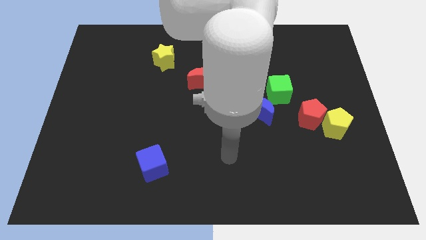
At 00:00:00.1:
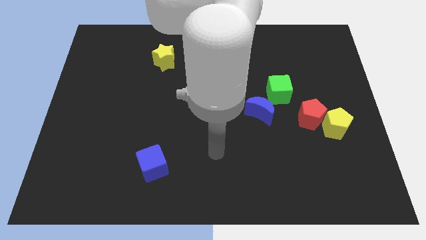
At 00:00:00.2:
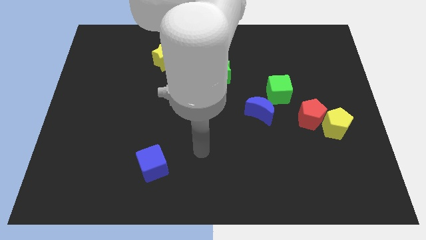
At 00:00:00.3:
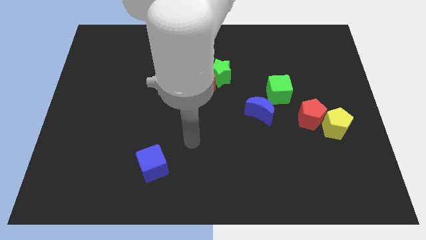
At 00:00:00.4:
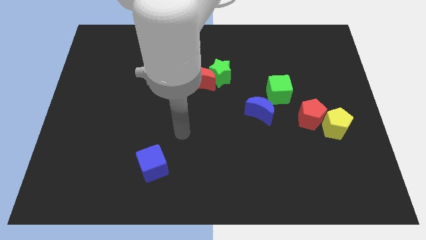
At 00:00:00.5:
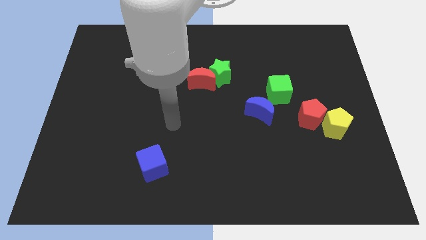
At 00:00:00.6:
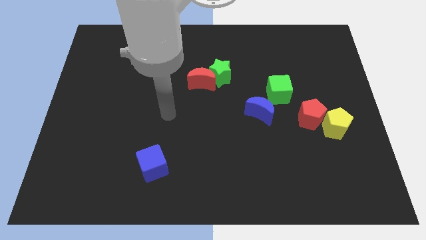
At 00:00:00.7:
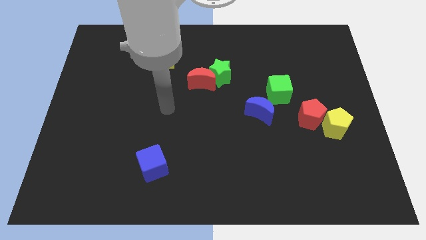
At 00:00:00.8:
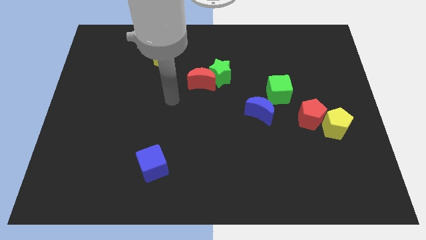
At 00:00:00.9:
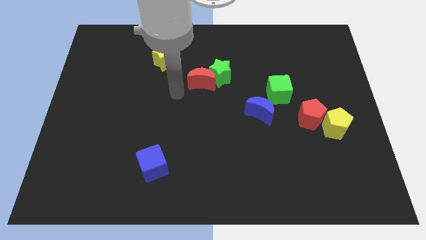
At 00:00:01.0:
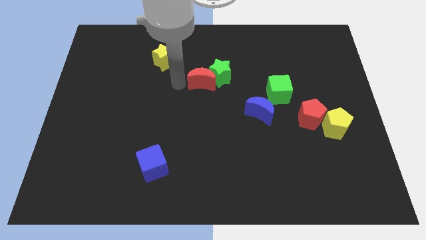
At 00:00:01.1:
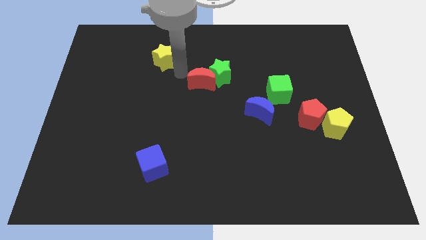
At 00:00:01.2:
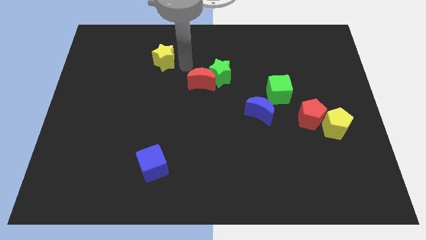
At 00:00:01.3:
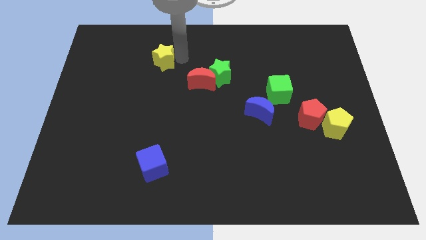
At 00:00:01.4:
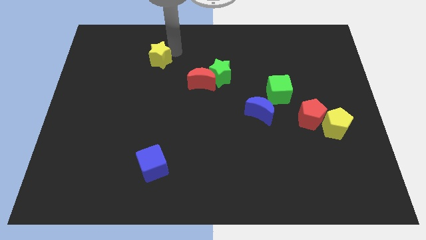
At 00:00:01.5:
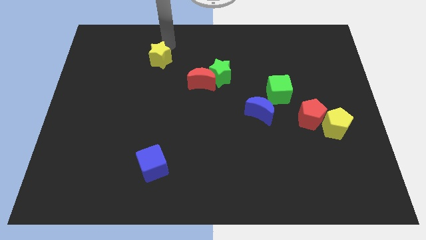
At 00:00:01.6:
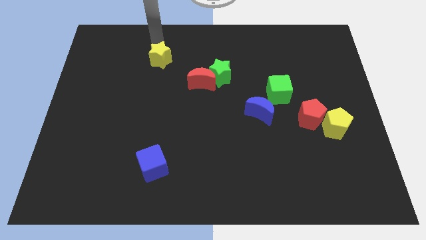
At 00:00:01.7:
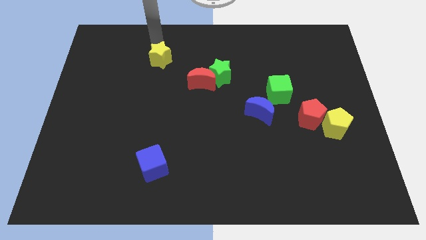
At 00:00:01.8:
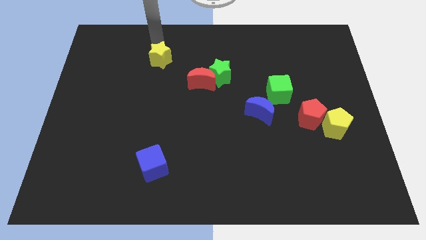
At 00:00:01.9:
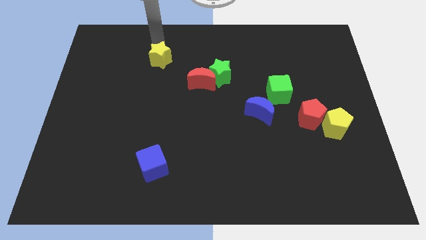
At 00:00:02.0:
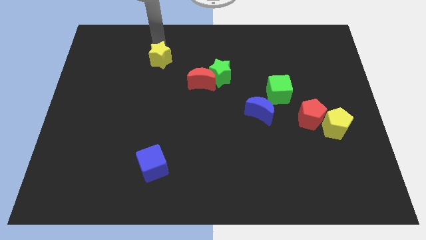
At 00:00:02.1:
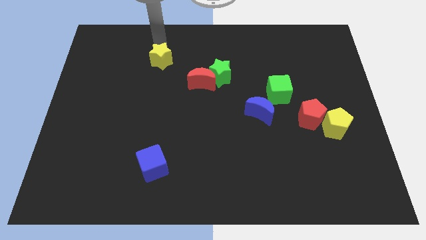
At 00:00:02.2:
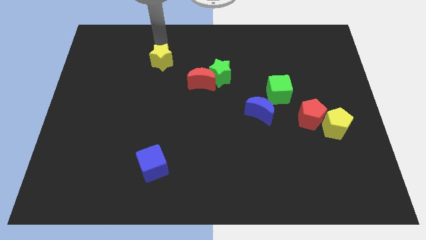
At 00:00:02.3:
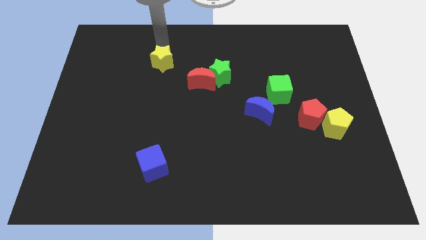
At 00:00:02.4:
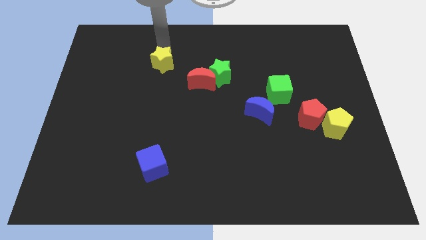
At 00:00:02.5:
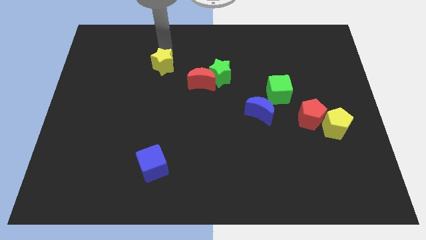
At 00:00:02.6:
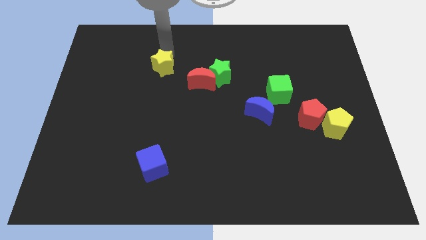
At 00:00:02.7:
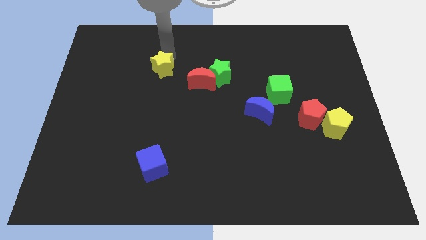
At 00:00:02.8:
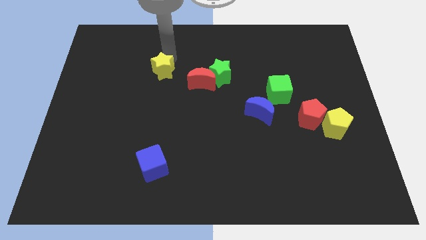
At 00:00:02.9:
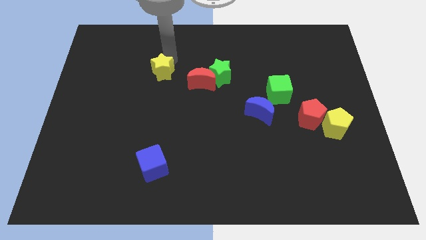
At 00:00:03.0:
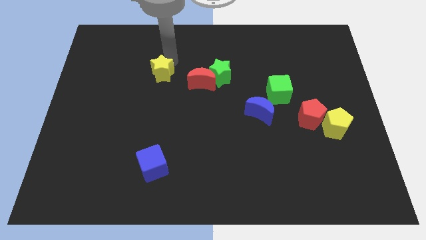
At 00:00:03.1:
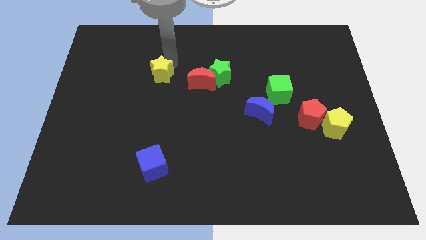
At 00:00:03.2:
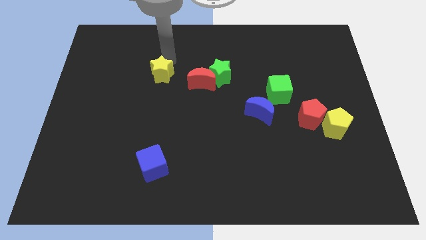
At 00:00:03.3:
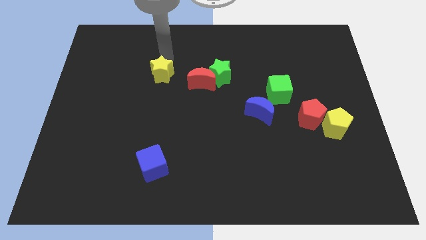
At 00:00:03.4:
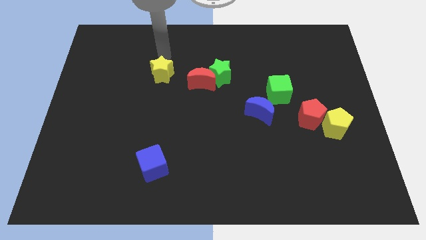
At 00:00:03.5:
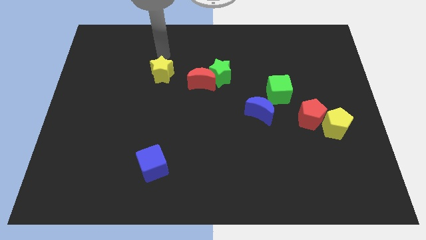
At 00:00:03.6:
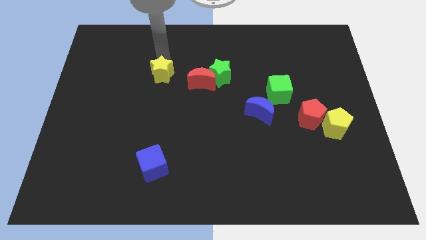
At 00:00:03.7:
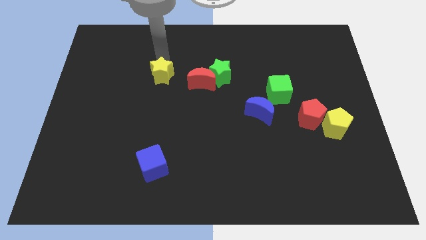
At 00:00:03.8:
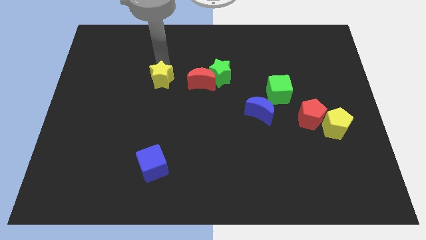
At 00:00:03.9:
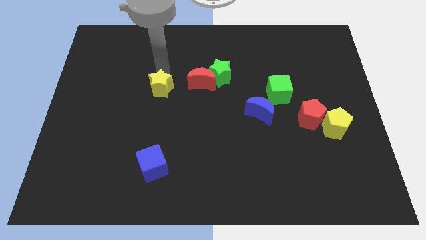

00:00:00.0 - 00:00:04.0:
move the yellow star down slightly

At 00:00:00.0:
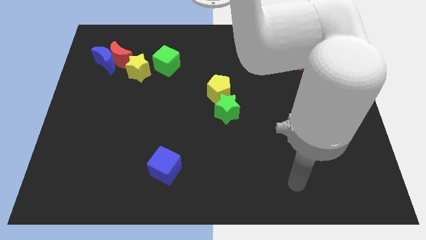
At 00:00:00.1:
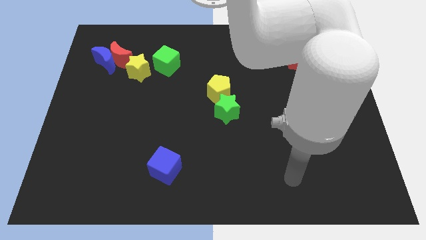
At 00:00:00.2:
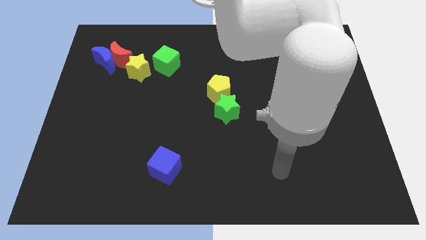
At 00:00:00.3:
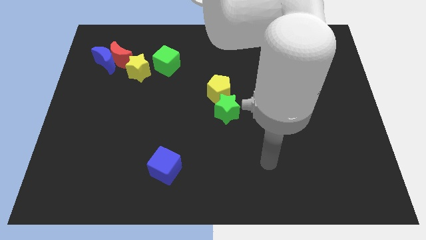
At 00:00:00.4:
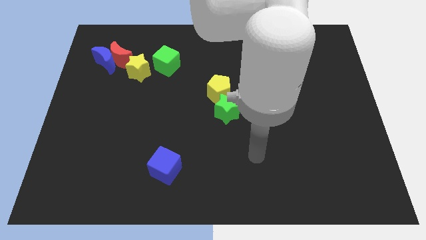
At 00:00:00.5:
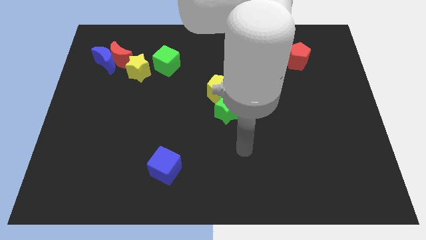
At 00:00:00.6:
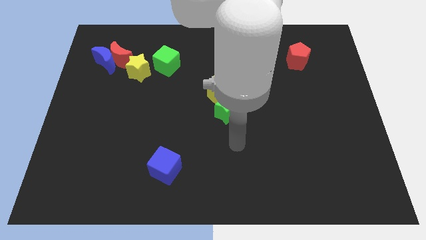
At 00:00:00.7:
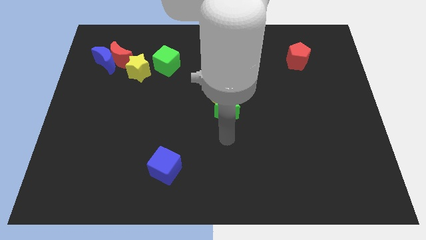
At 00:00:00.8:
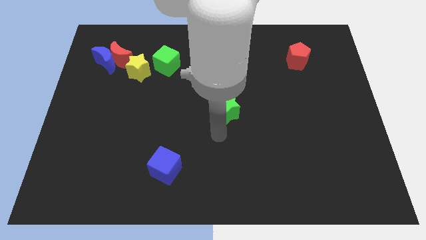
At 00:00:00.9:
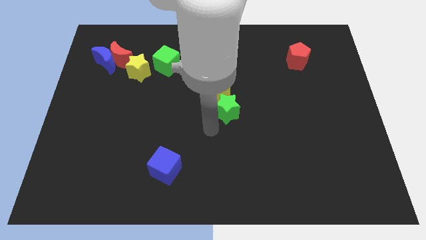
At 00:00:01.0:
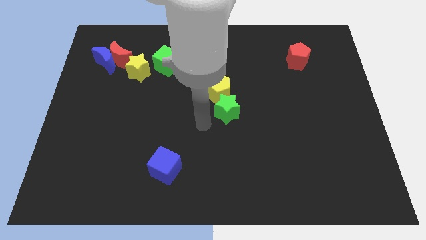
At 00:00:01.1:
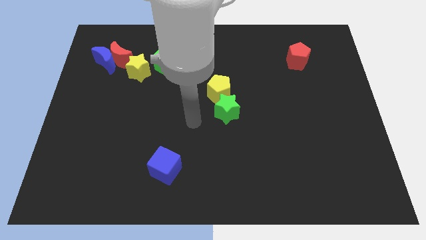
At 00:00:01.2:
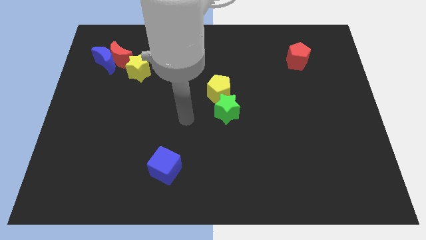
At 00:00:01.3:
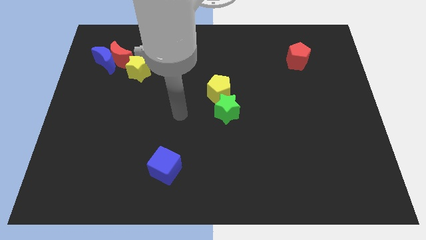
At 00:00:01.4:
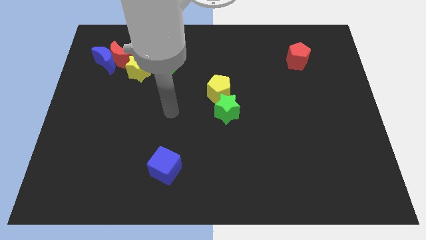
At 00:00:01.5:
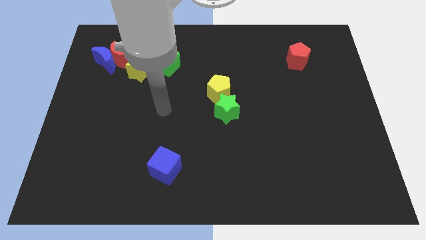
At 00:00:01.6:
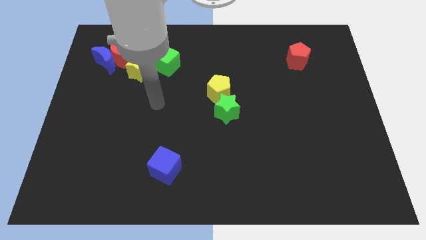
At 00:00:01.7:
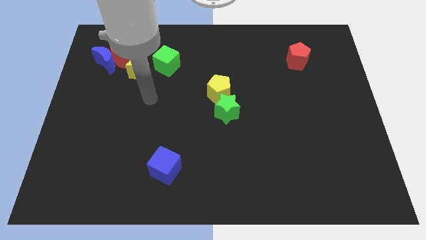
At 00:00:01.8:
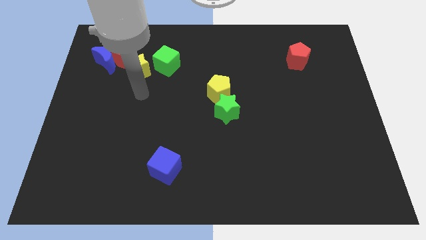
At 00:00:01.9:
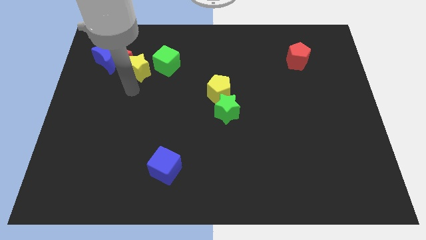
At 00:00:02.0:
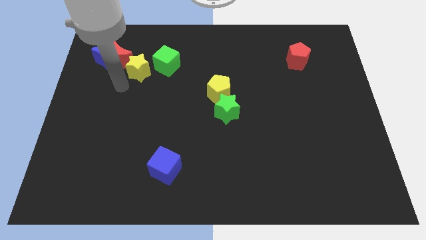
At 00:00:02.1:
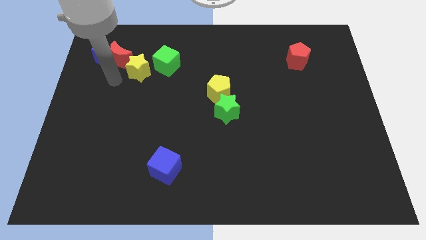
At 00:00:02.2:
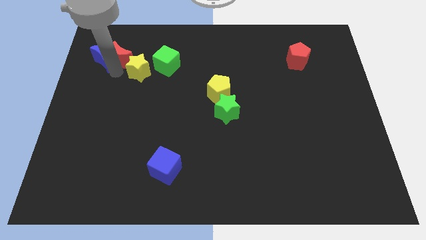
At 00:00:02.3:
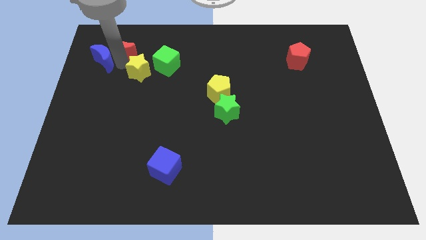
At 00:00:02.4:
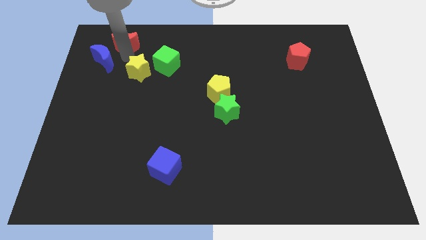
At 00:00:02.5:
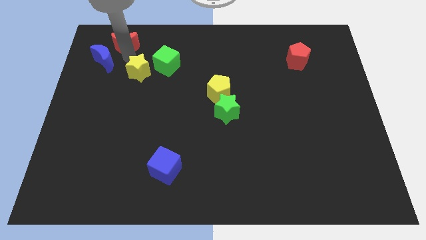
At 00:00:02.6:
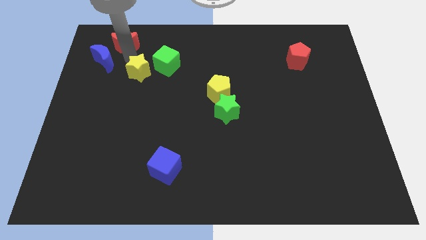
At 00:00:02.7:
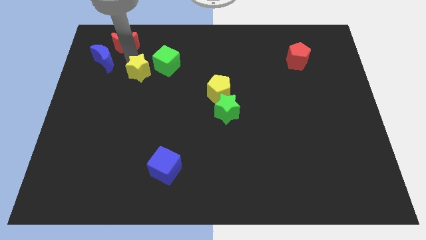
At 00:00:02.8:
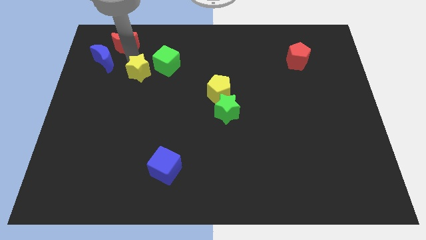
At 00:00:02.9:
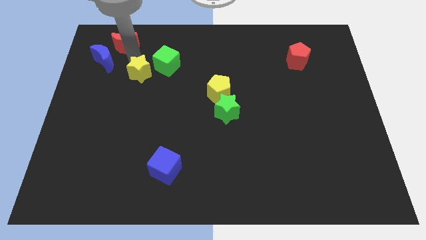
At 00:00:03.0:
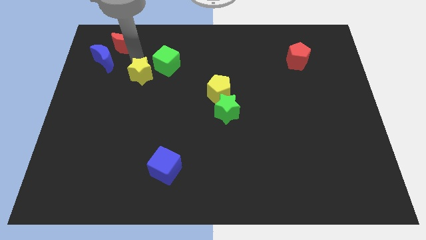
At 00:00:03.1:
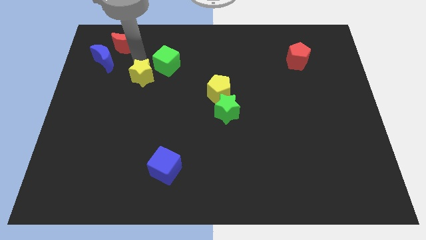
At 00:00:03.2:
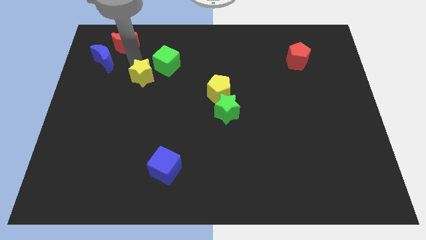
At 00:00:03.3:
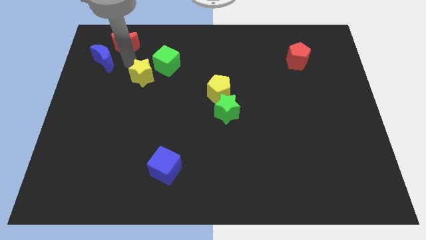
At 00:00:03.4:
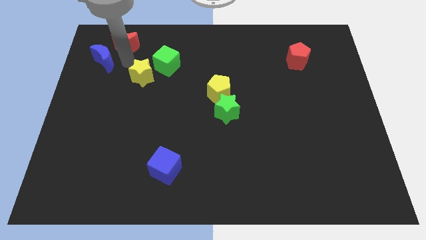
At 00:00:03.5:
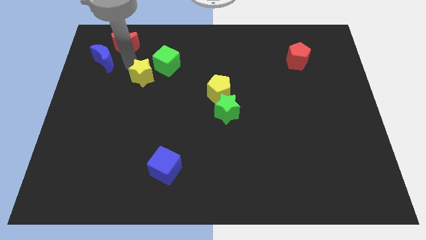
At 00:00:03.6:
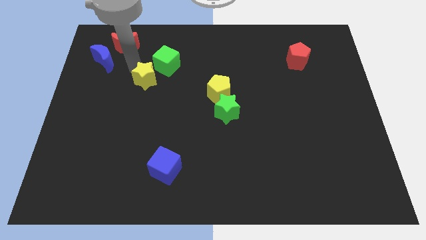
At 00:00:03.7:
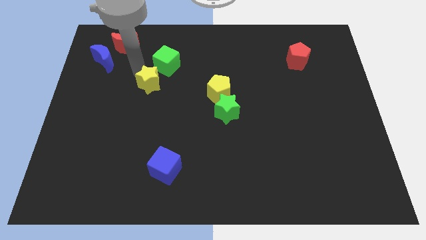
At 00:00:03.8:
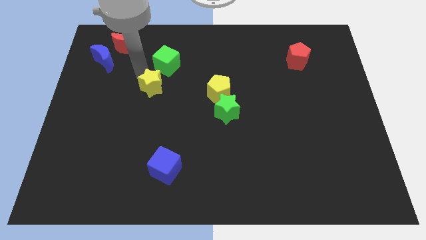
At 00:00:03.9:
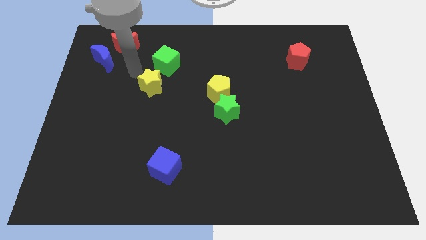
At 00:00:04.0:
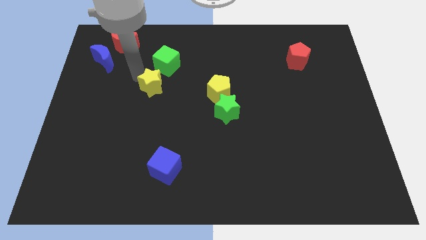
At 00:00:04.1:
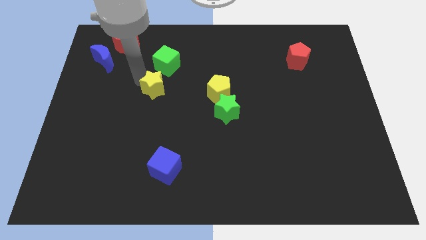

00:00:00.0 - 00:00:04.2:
slide the yellow star a little down and then right
